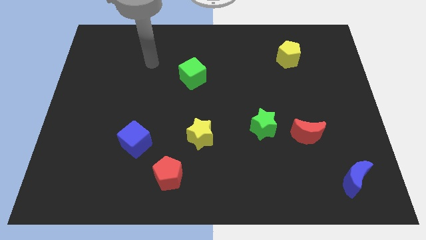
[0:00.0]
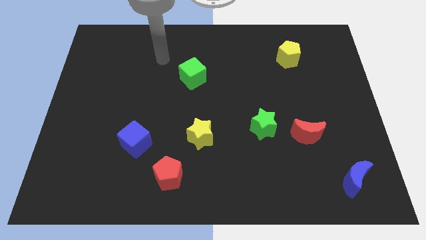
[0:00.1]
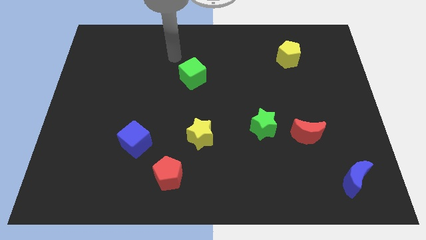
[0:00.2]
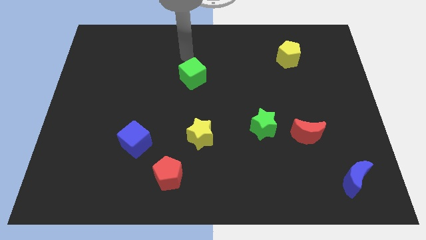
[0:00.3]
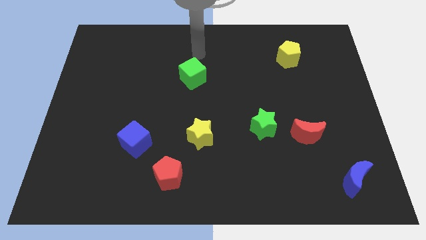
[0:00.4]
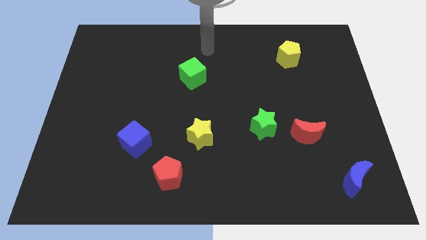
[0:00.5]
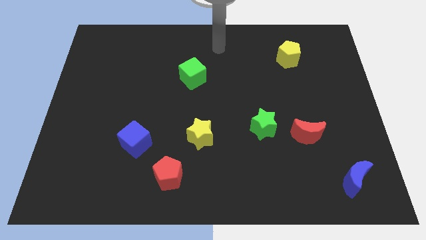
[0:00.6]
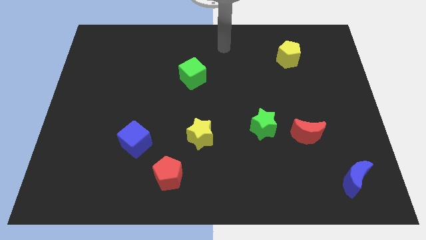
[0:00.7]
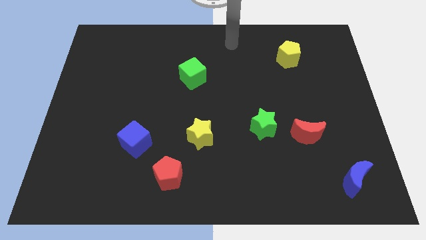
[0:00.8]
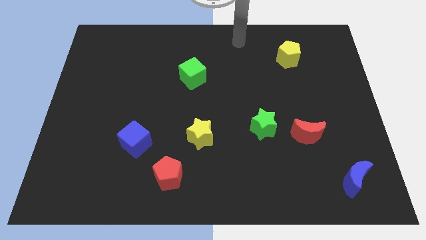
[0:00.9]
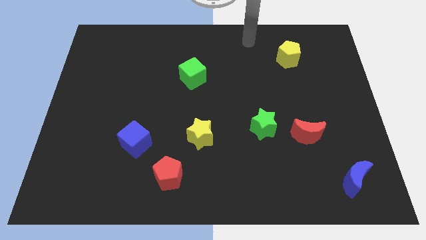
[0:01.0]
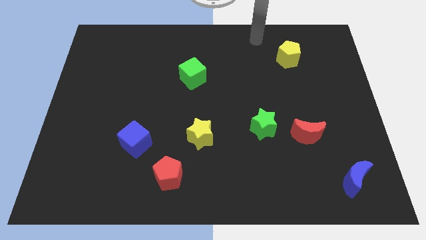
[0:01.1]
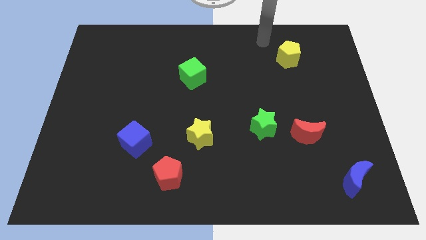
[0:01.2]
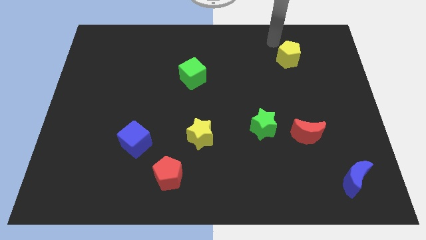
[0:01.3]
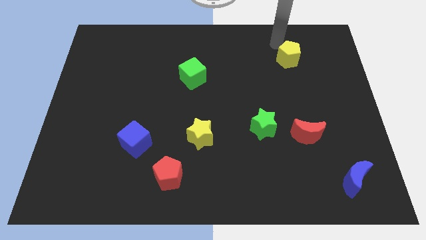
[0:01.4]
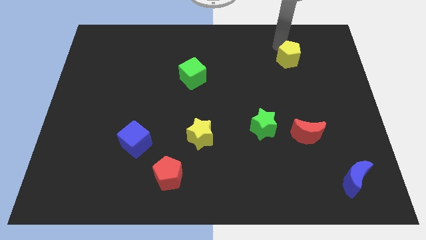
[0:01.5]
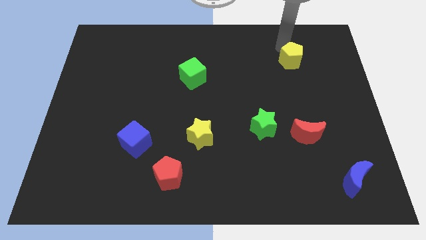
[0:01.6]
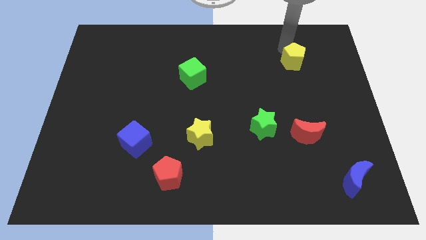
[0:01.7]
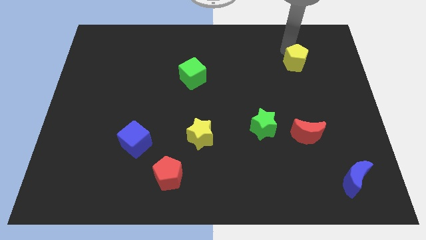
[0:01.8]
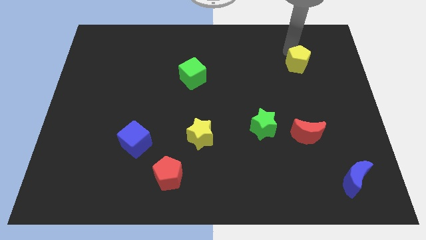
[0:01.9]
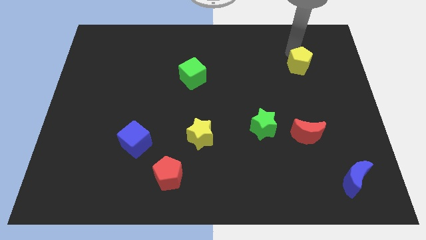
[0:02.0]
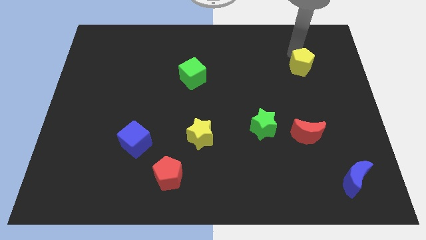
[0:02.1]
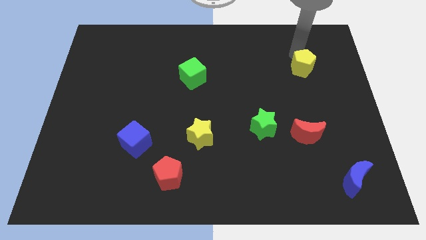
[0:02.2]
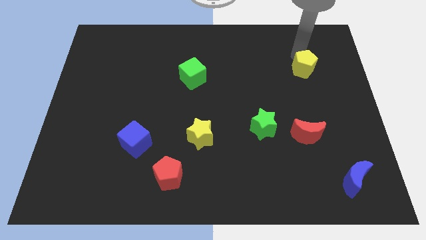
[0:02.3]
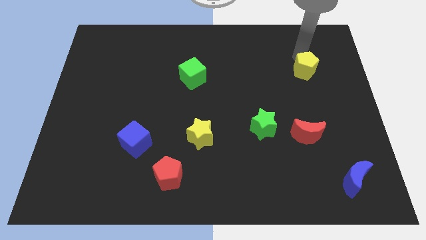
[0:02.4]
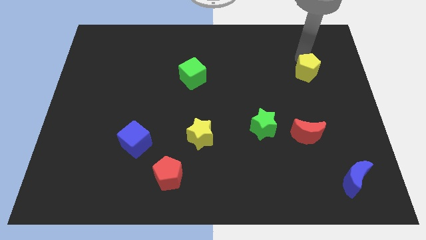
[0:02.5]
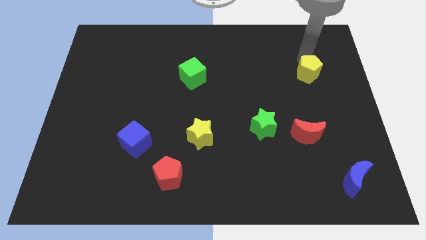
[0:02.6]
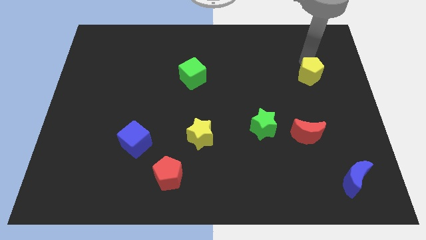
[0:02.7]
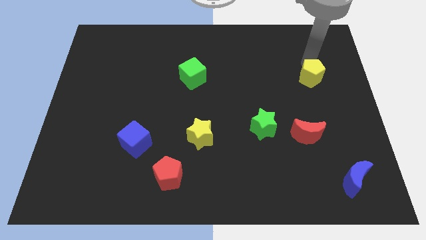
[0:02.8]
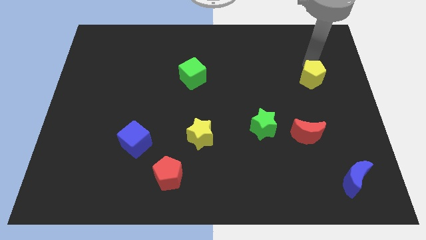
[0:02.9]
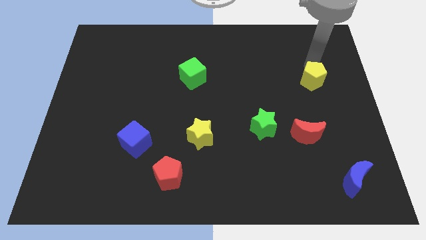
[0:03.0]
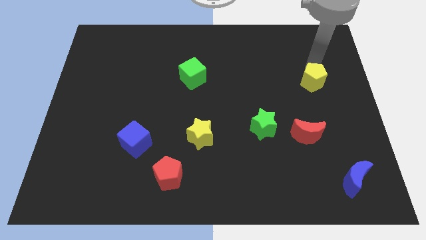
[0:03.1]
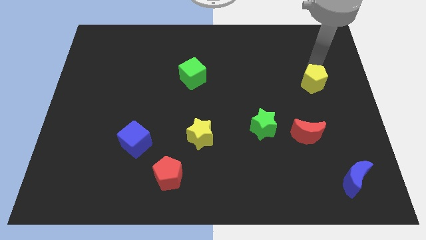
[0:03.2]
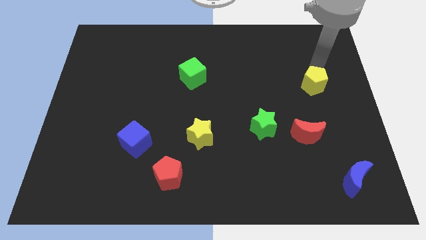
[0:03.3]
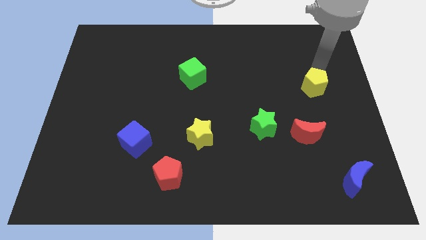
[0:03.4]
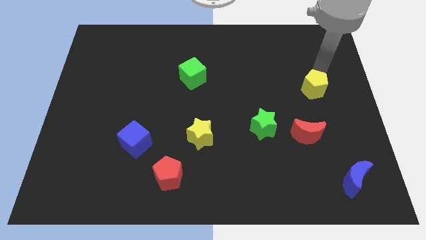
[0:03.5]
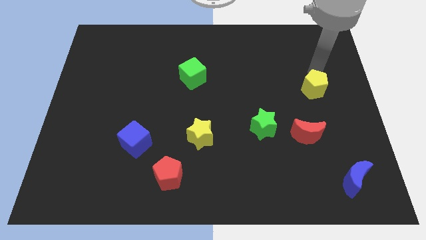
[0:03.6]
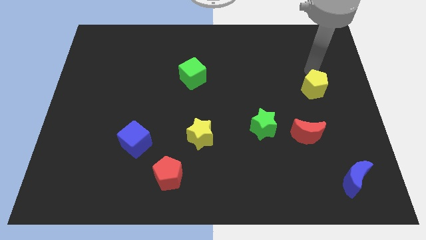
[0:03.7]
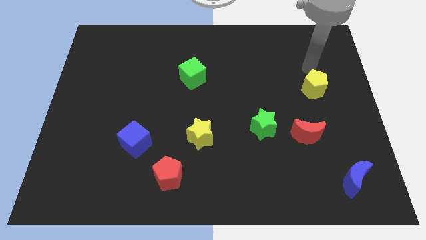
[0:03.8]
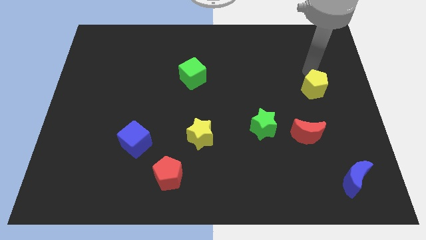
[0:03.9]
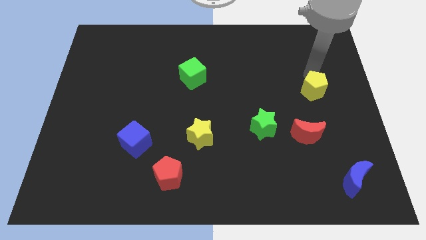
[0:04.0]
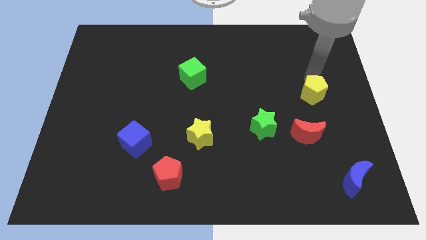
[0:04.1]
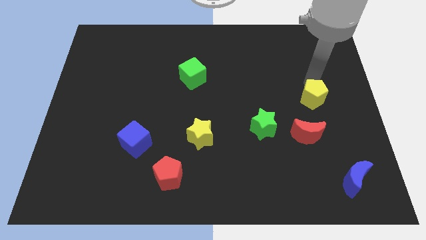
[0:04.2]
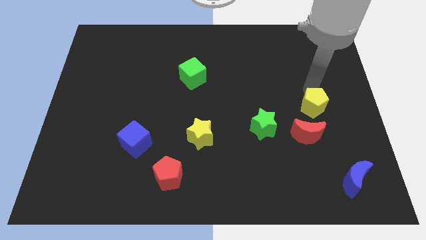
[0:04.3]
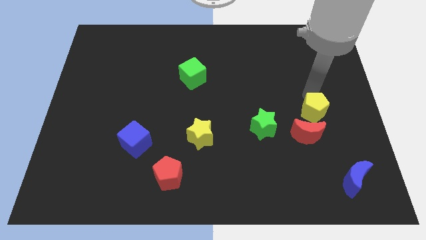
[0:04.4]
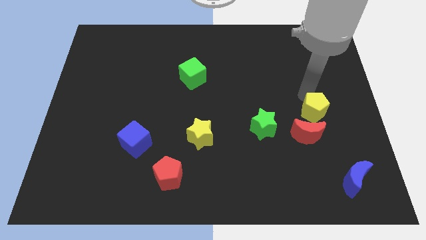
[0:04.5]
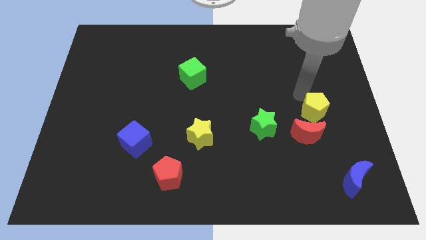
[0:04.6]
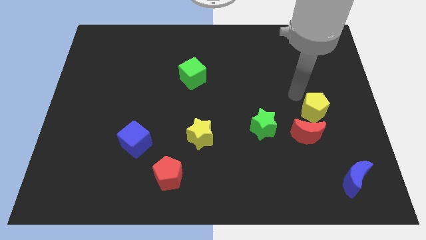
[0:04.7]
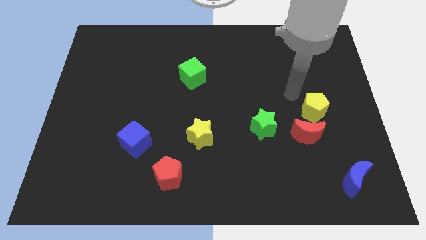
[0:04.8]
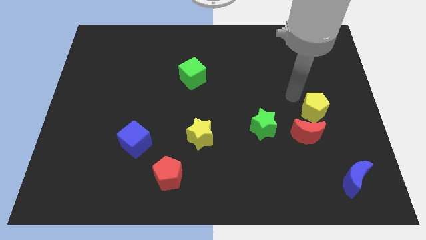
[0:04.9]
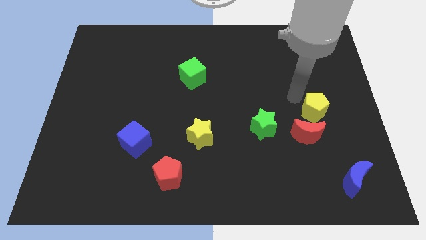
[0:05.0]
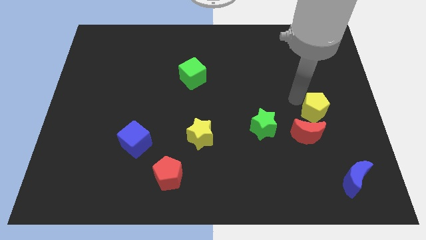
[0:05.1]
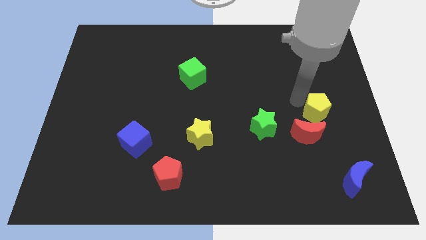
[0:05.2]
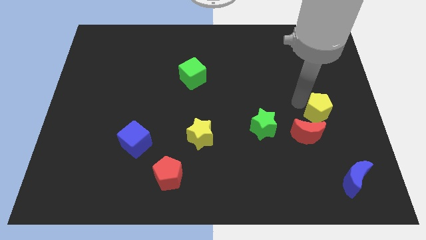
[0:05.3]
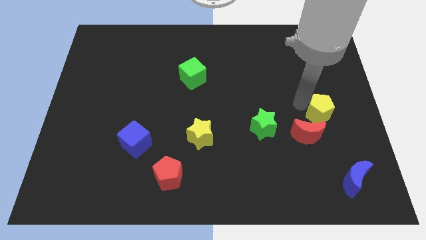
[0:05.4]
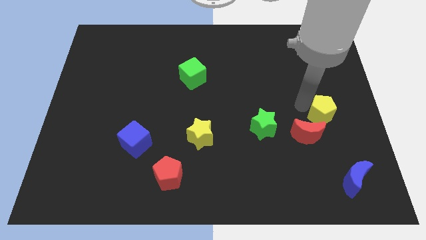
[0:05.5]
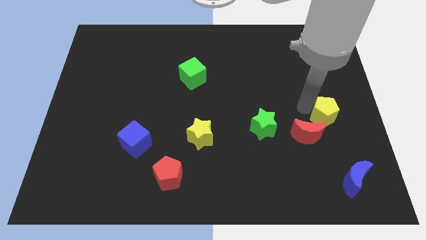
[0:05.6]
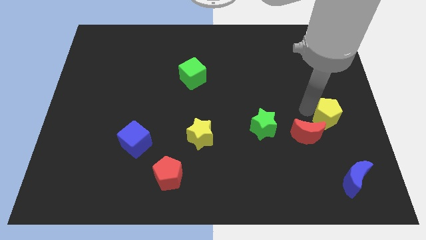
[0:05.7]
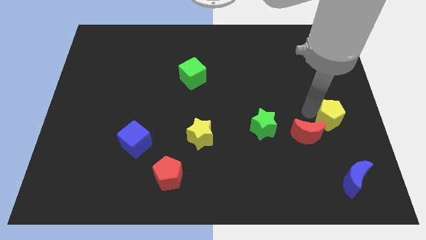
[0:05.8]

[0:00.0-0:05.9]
move the yellow pentagon above the blue moon
